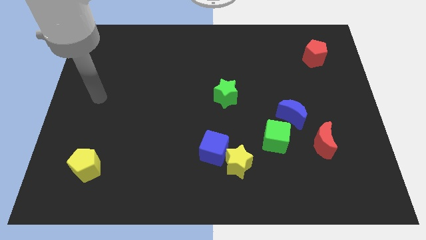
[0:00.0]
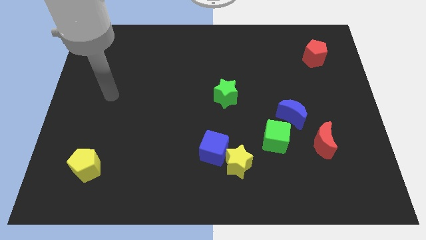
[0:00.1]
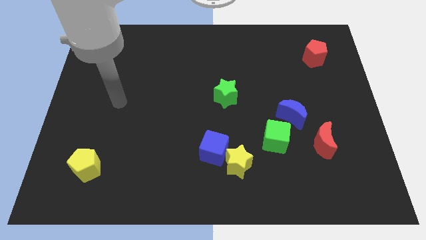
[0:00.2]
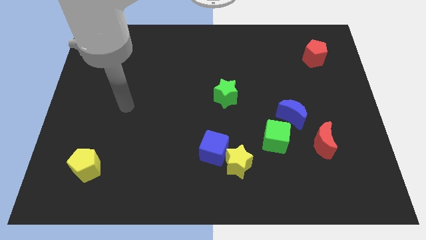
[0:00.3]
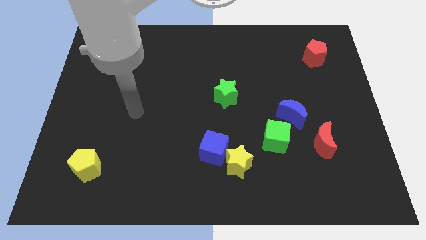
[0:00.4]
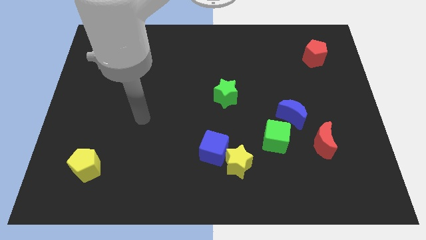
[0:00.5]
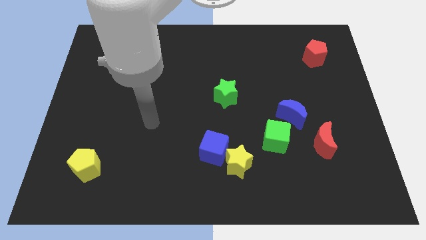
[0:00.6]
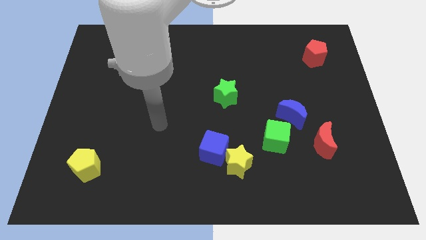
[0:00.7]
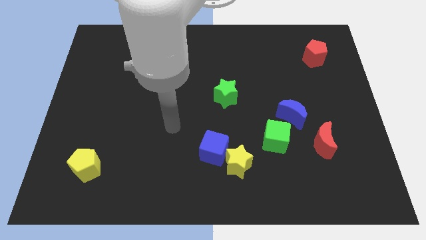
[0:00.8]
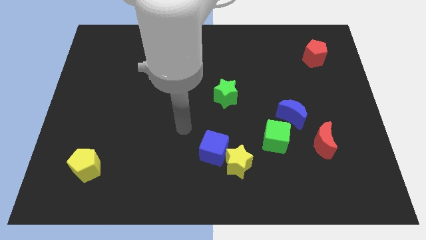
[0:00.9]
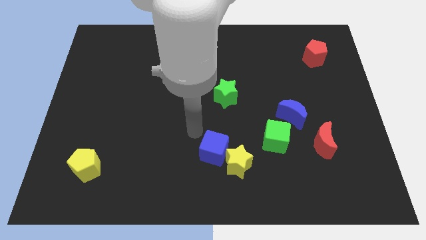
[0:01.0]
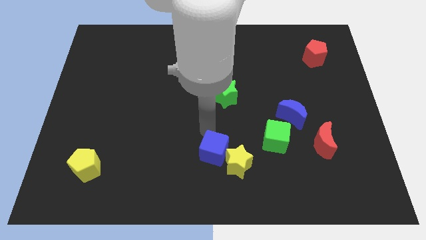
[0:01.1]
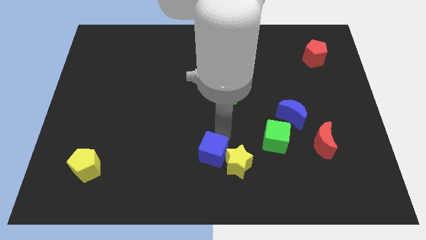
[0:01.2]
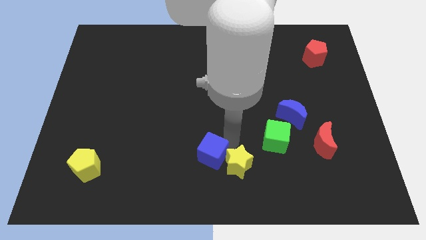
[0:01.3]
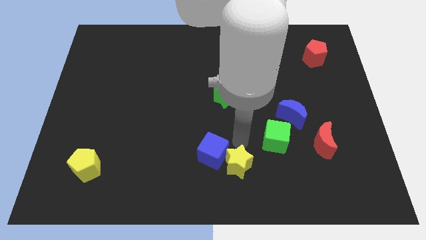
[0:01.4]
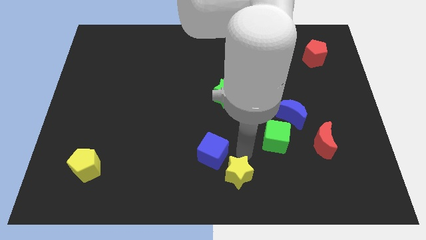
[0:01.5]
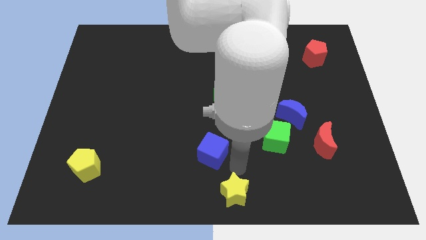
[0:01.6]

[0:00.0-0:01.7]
move the blue cube away from the yellow star

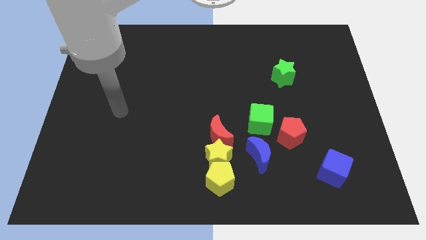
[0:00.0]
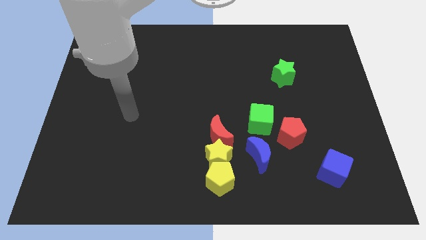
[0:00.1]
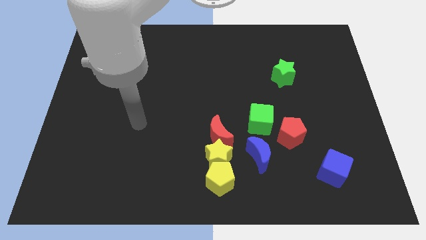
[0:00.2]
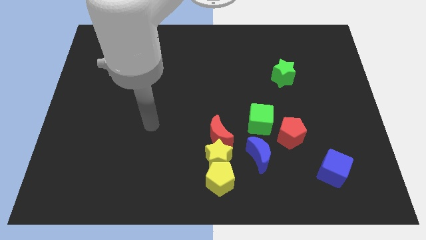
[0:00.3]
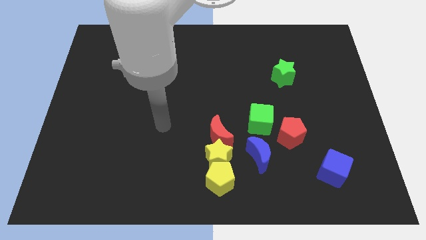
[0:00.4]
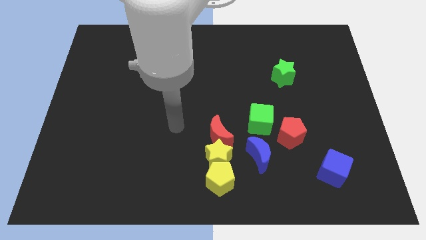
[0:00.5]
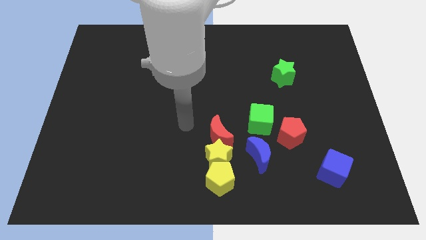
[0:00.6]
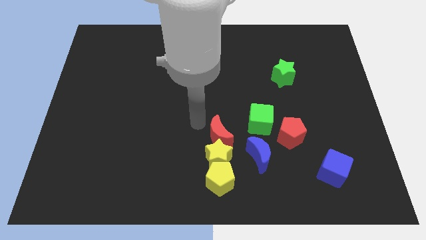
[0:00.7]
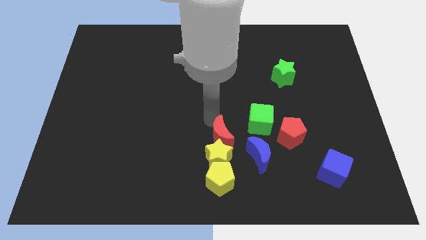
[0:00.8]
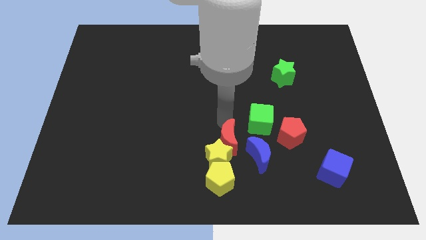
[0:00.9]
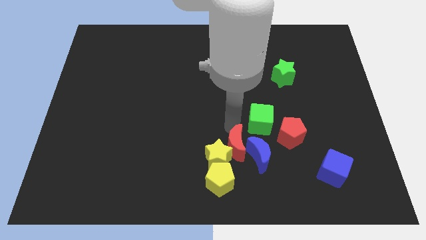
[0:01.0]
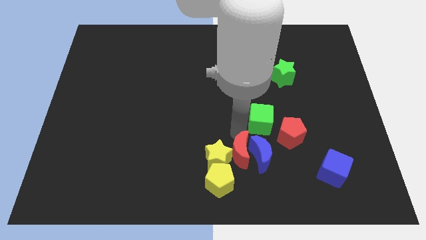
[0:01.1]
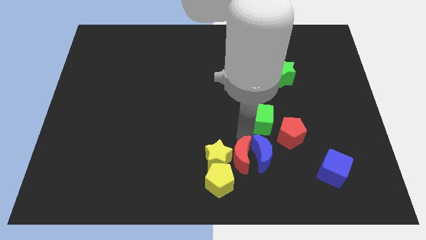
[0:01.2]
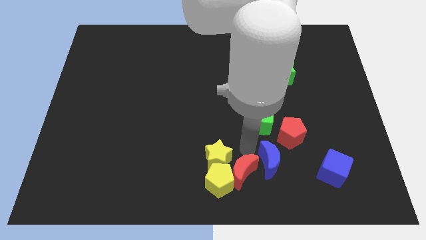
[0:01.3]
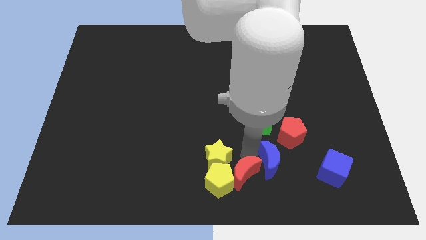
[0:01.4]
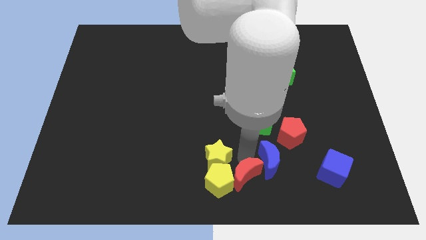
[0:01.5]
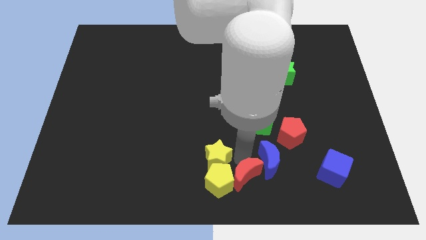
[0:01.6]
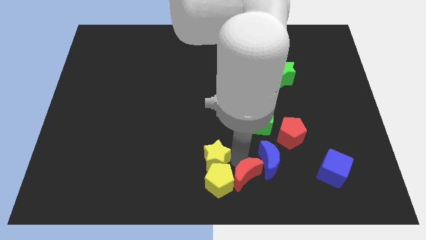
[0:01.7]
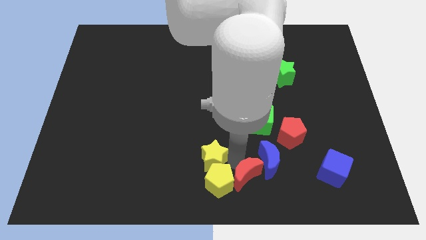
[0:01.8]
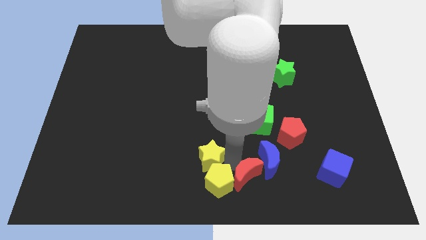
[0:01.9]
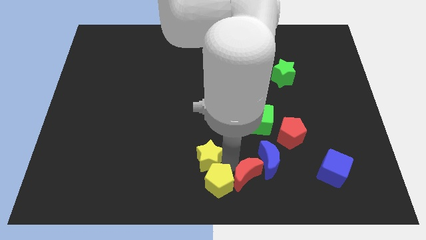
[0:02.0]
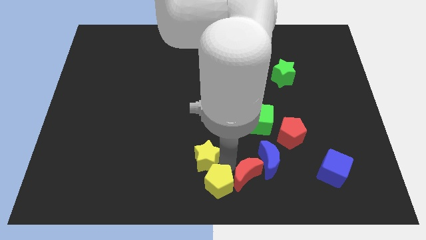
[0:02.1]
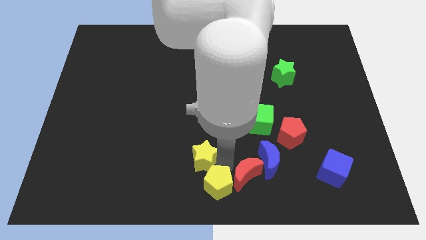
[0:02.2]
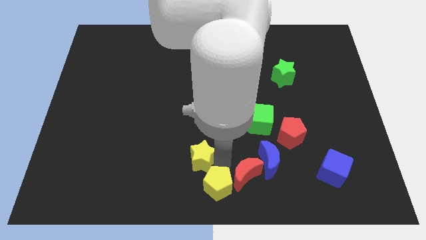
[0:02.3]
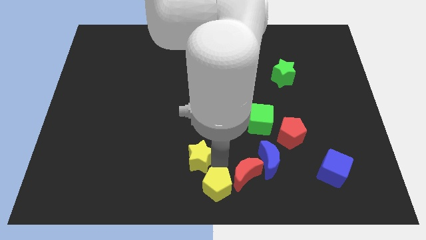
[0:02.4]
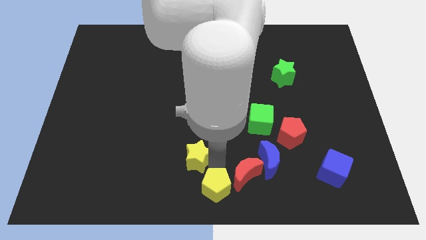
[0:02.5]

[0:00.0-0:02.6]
move the yellow star away from the yellow pentagon, red moon, and blue moon

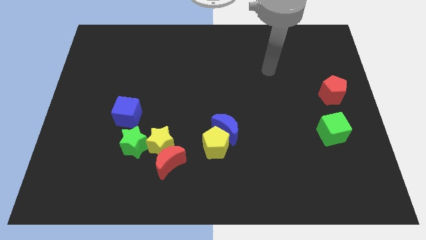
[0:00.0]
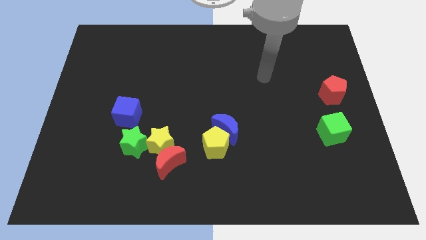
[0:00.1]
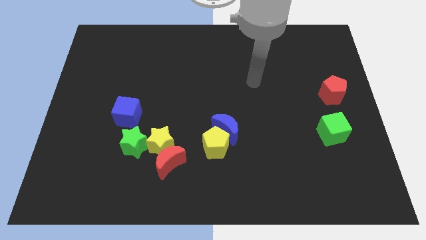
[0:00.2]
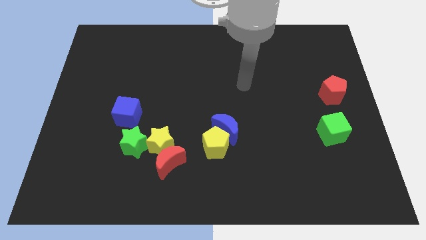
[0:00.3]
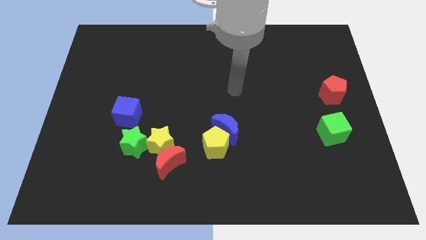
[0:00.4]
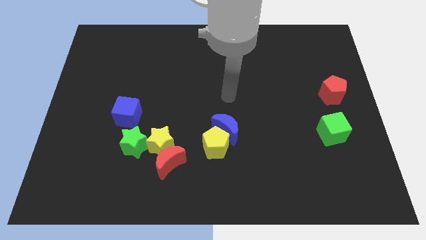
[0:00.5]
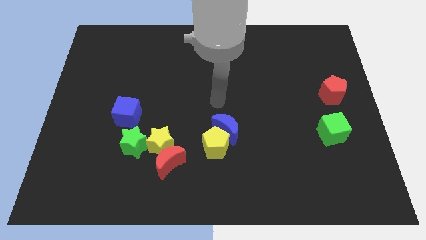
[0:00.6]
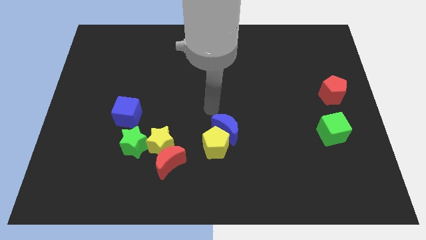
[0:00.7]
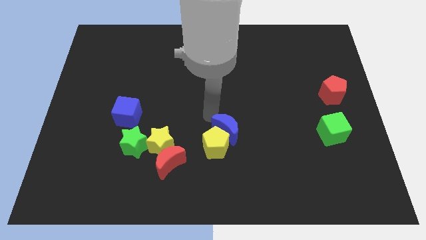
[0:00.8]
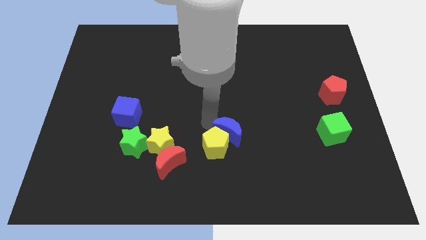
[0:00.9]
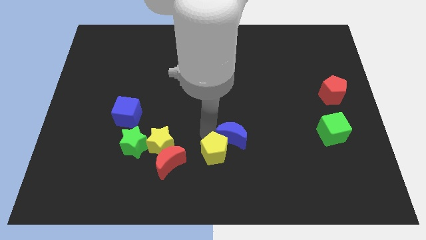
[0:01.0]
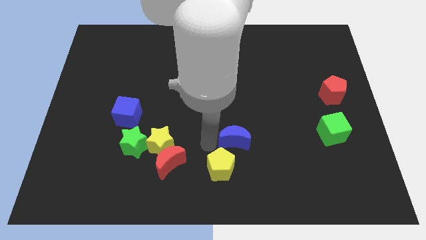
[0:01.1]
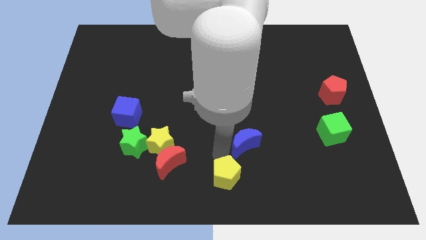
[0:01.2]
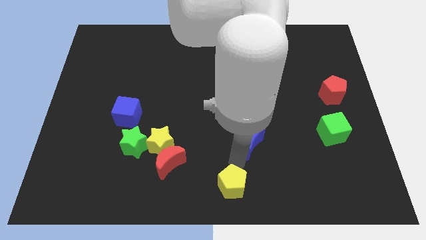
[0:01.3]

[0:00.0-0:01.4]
pull the blue moon apart from the yellow pentagon

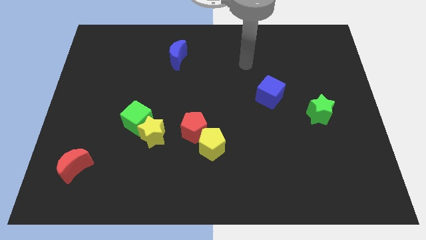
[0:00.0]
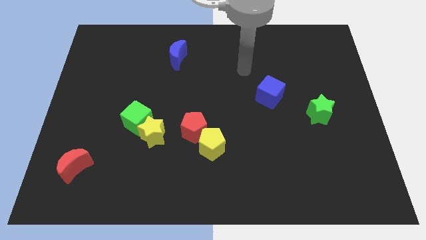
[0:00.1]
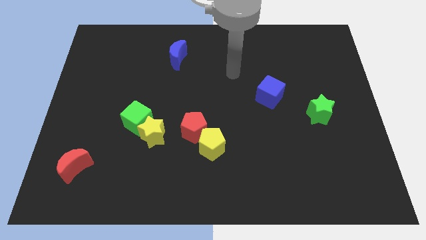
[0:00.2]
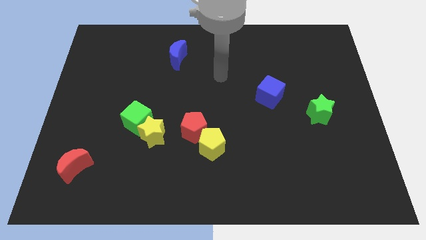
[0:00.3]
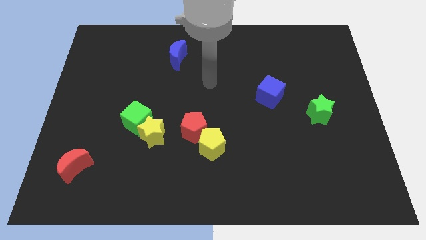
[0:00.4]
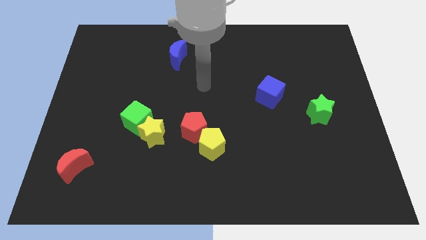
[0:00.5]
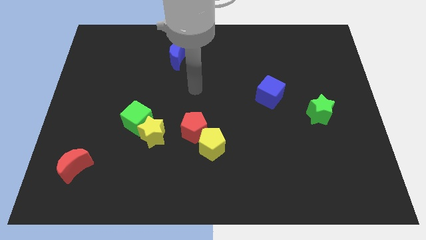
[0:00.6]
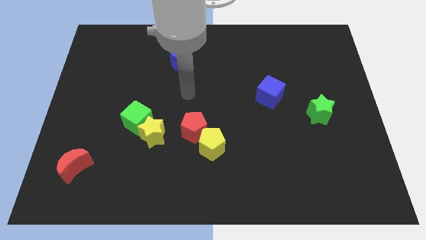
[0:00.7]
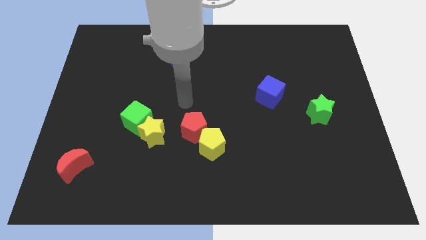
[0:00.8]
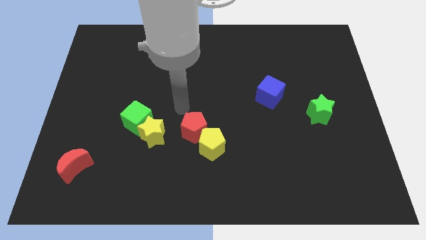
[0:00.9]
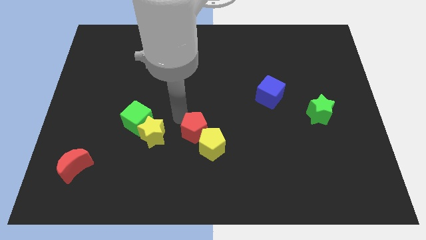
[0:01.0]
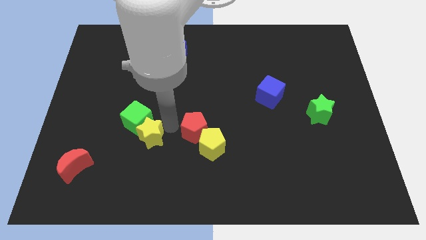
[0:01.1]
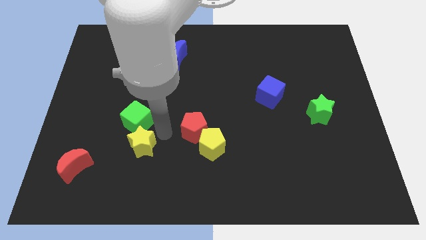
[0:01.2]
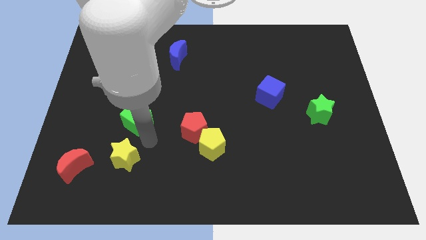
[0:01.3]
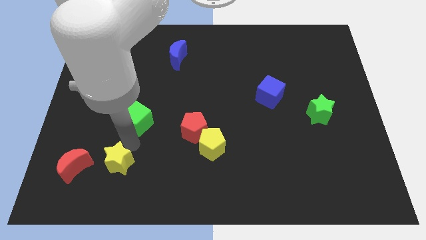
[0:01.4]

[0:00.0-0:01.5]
pull the green cube apart from the yellow star

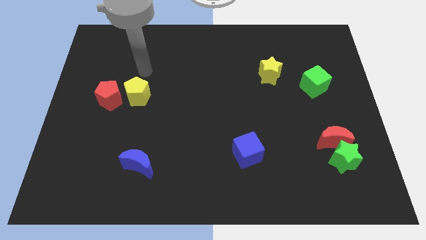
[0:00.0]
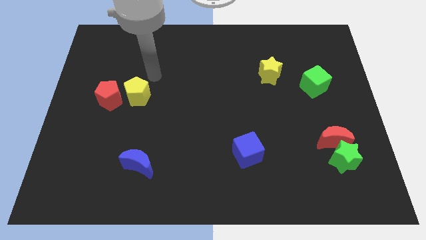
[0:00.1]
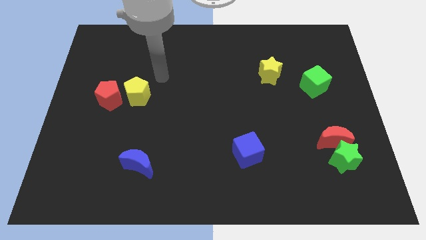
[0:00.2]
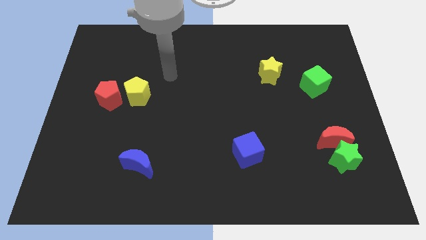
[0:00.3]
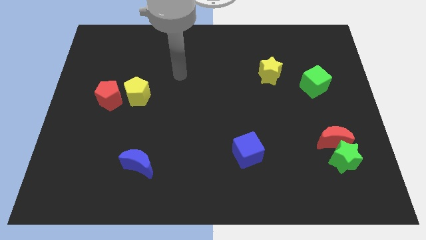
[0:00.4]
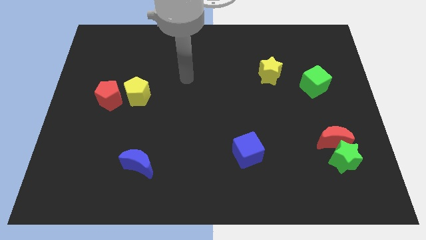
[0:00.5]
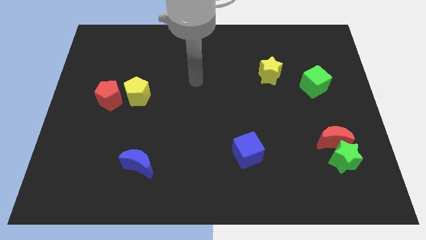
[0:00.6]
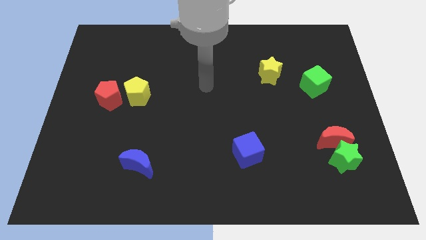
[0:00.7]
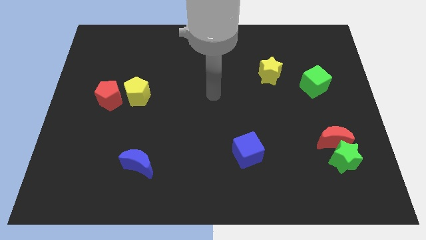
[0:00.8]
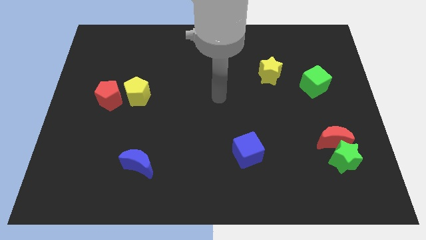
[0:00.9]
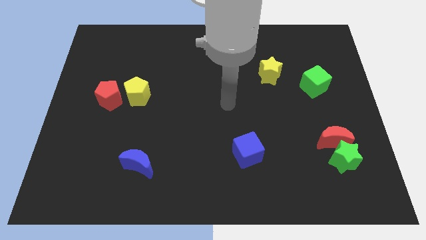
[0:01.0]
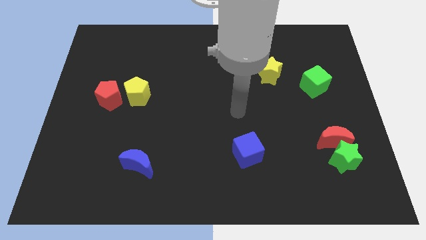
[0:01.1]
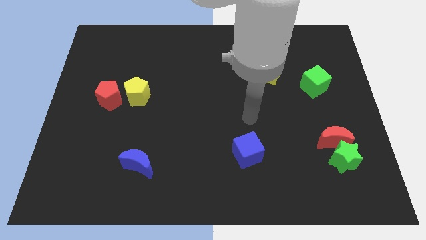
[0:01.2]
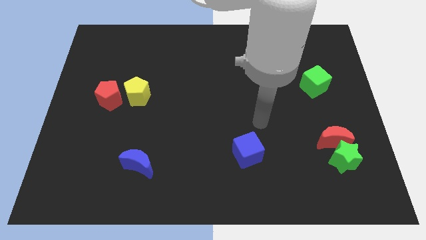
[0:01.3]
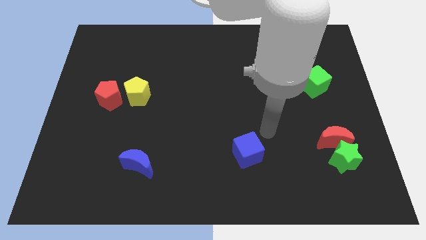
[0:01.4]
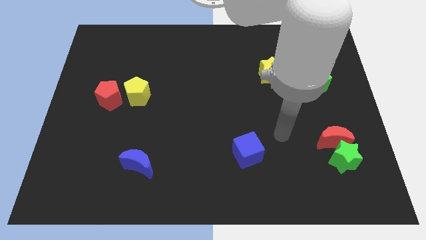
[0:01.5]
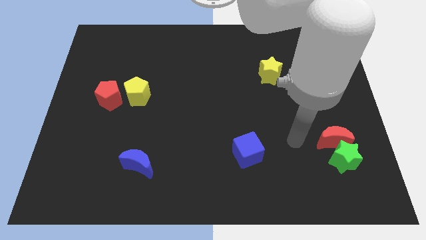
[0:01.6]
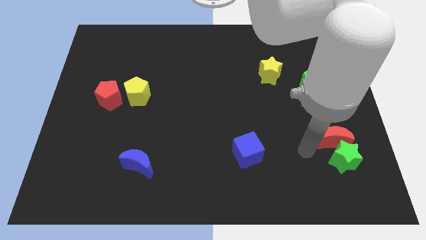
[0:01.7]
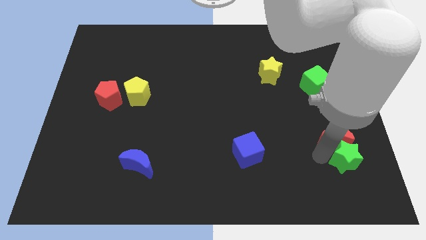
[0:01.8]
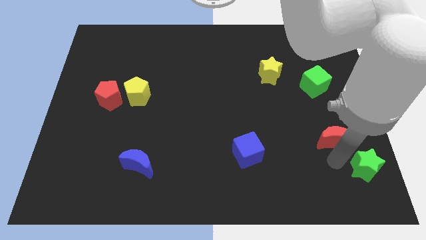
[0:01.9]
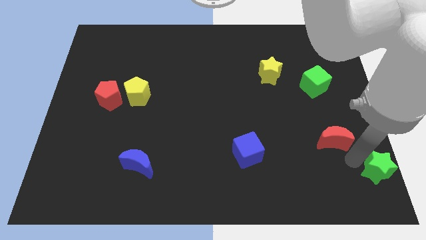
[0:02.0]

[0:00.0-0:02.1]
pull the red moon apart from the green star
